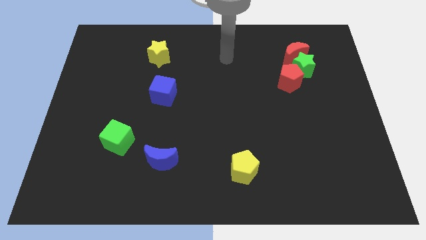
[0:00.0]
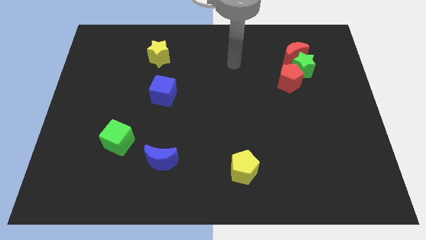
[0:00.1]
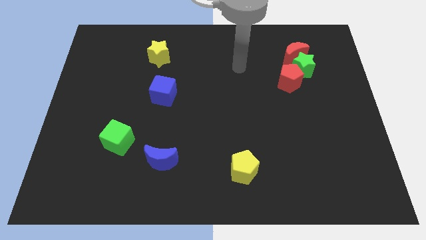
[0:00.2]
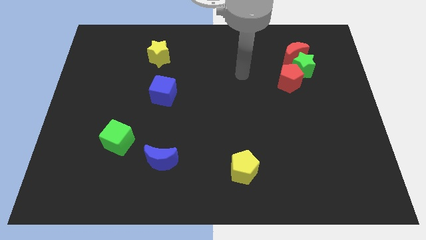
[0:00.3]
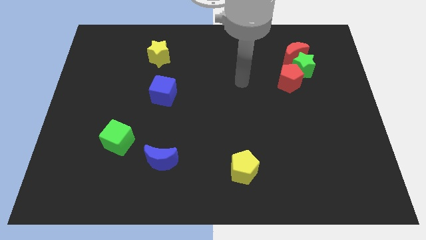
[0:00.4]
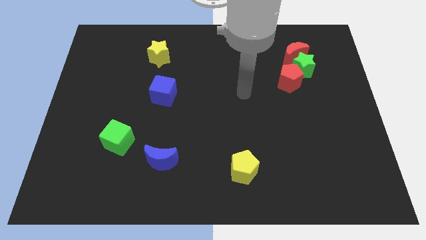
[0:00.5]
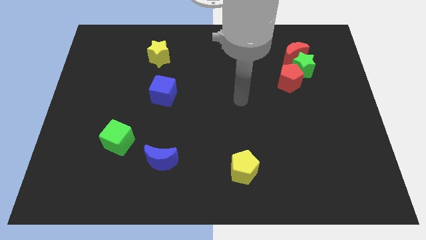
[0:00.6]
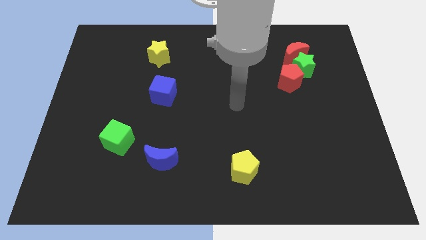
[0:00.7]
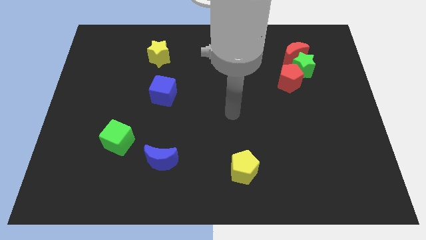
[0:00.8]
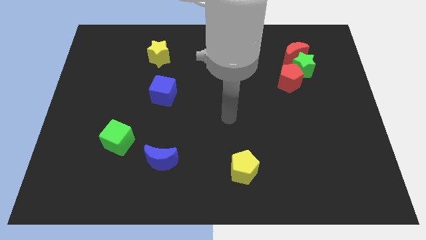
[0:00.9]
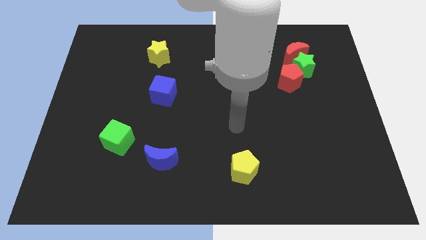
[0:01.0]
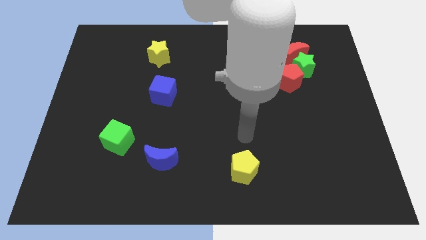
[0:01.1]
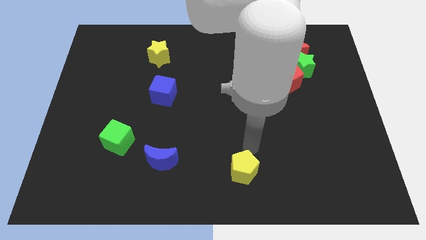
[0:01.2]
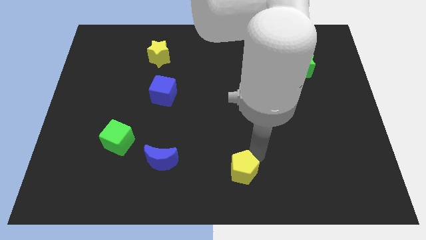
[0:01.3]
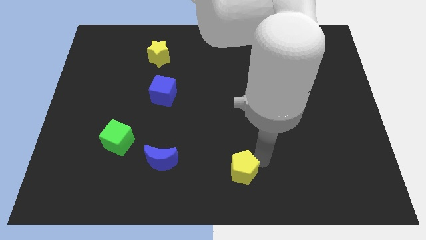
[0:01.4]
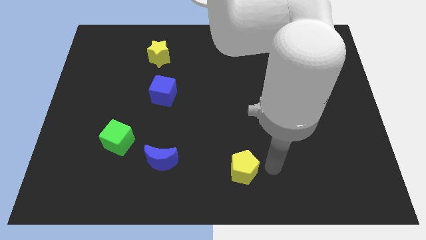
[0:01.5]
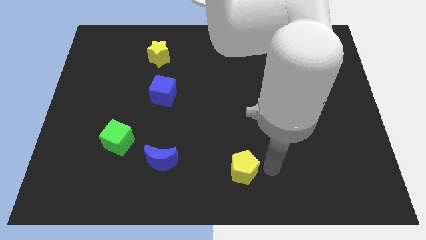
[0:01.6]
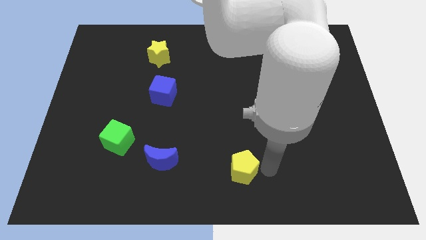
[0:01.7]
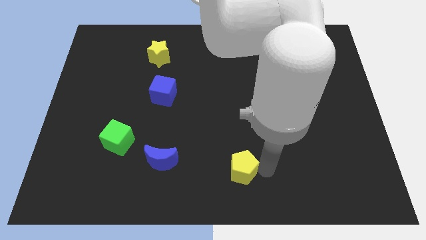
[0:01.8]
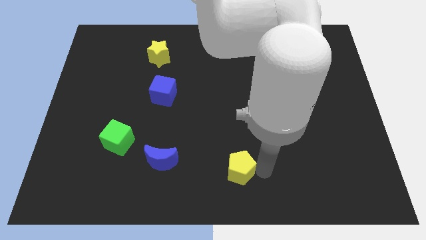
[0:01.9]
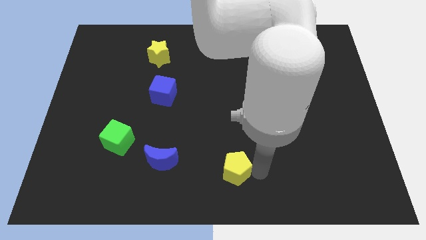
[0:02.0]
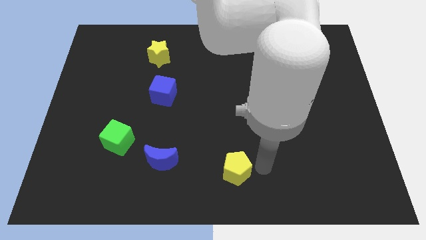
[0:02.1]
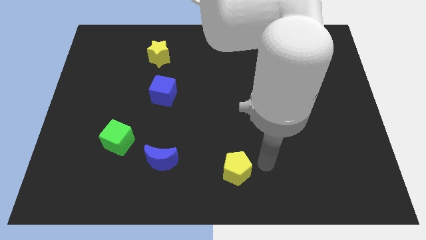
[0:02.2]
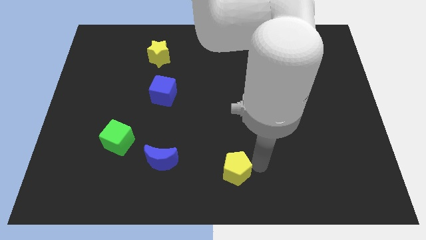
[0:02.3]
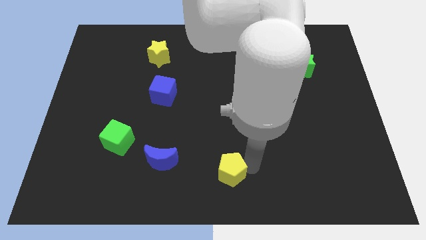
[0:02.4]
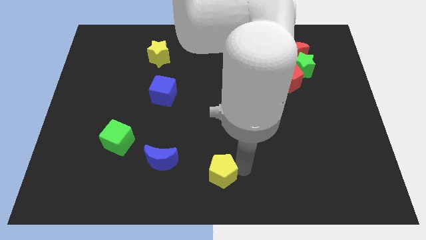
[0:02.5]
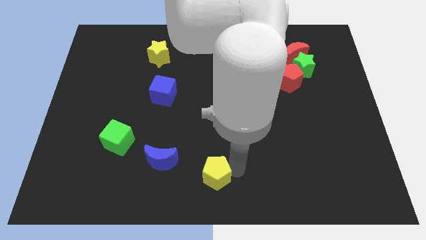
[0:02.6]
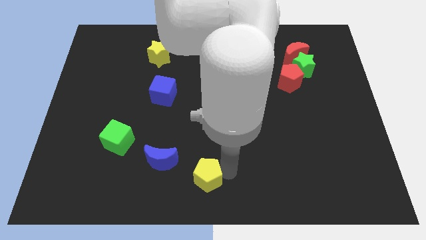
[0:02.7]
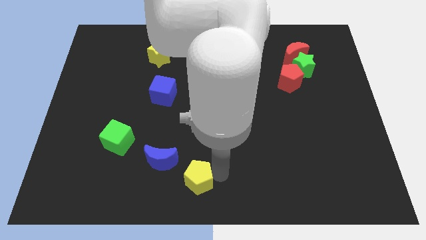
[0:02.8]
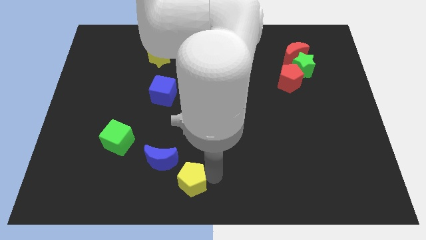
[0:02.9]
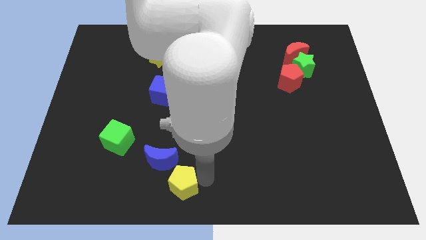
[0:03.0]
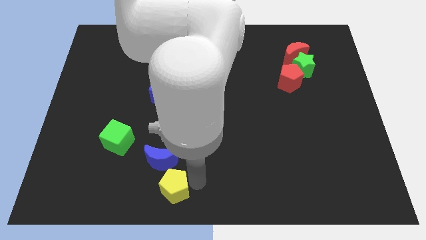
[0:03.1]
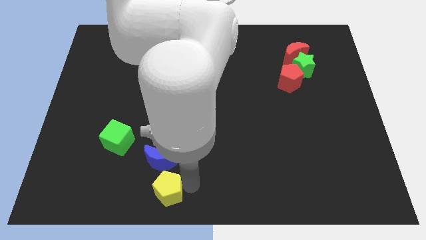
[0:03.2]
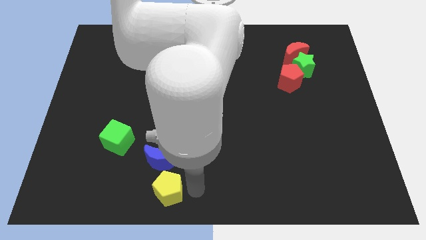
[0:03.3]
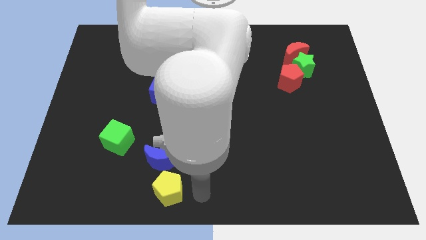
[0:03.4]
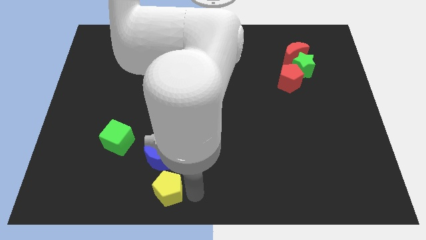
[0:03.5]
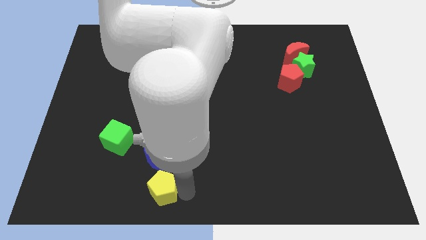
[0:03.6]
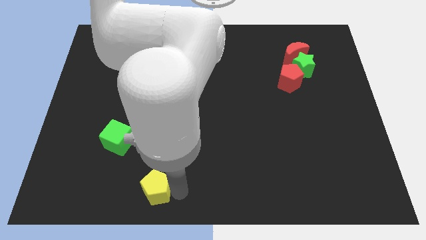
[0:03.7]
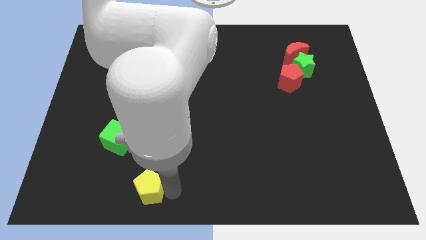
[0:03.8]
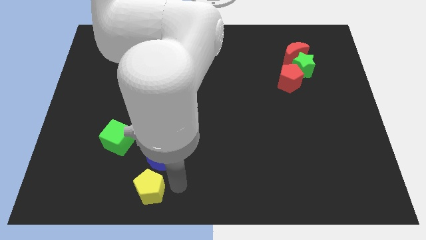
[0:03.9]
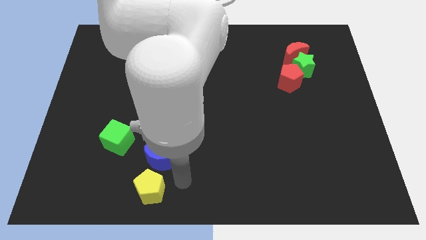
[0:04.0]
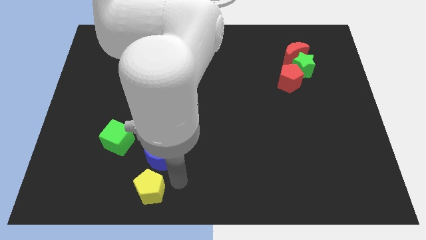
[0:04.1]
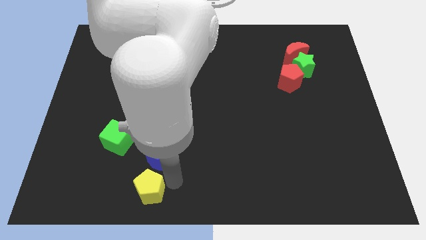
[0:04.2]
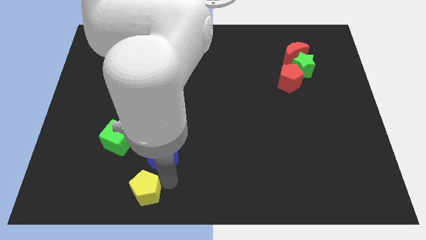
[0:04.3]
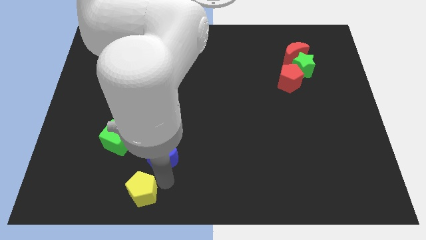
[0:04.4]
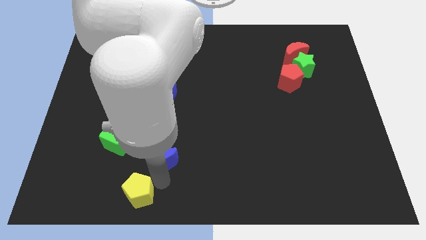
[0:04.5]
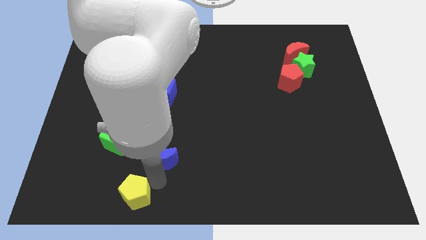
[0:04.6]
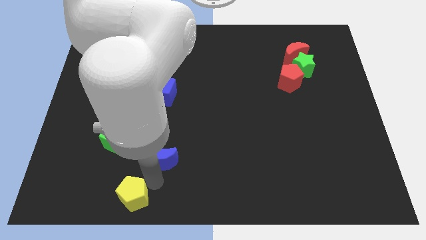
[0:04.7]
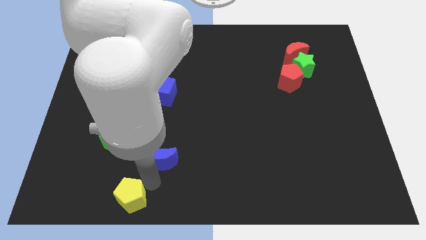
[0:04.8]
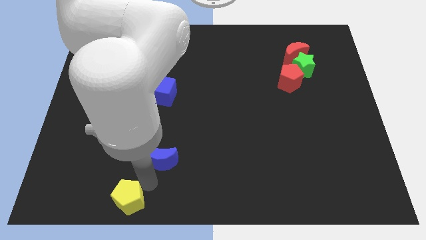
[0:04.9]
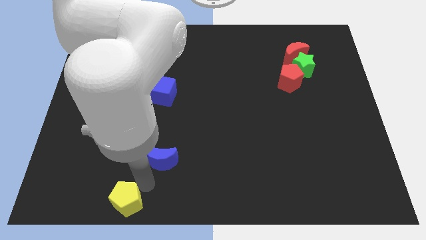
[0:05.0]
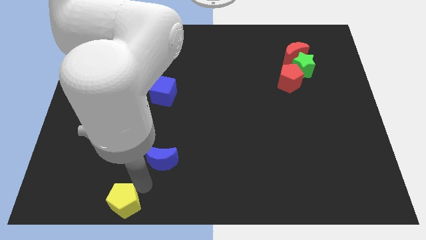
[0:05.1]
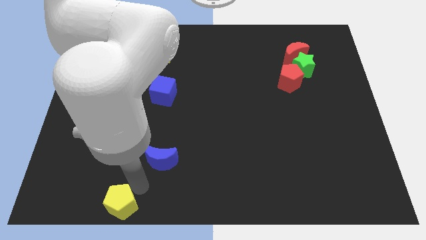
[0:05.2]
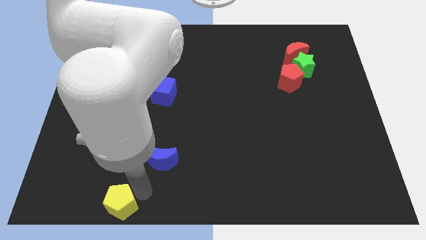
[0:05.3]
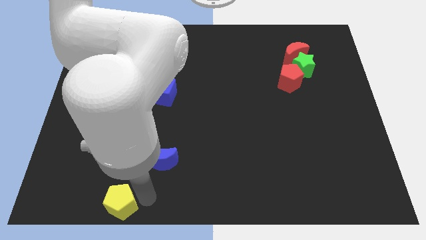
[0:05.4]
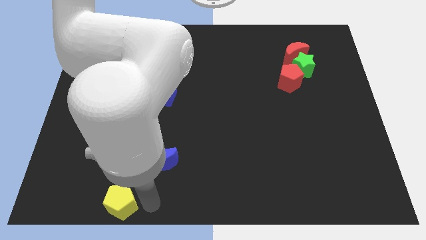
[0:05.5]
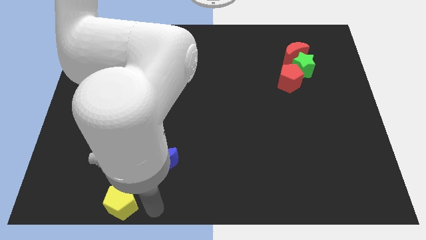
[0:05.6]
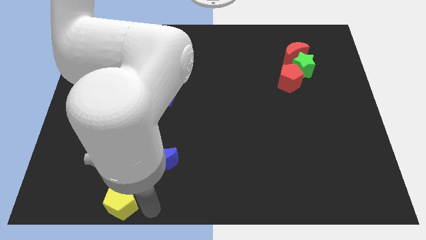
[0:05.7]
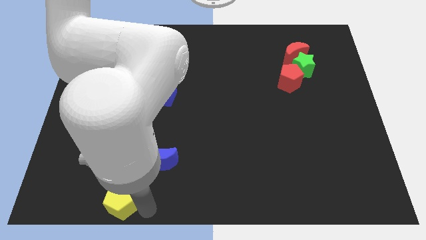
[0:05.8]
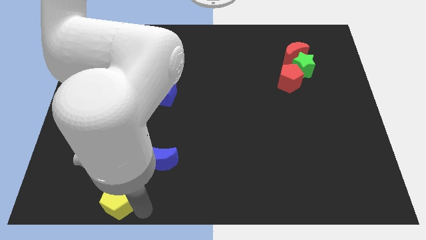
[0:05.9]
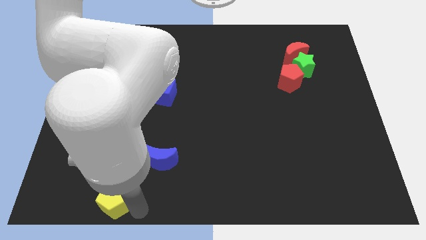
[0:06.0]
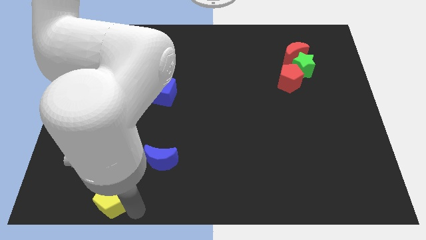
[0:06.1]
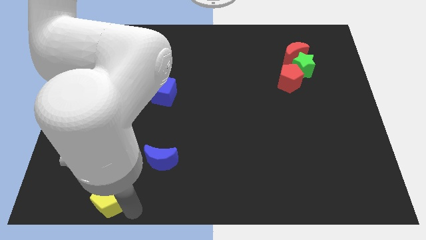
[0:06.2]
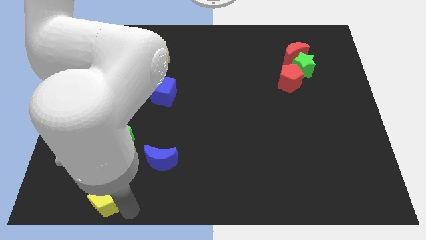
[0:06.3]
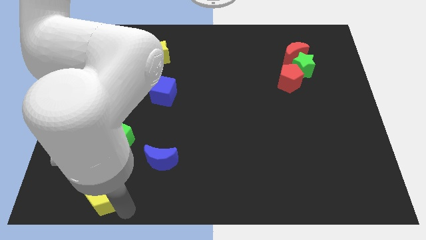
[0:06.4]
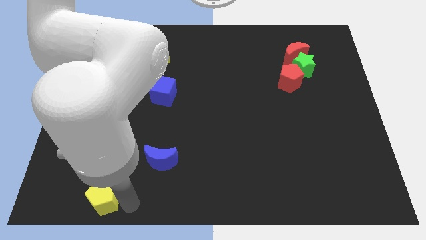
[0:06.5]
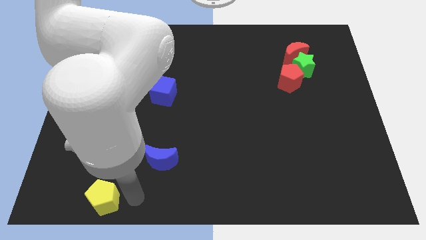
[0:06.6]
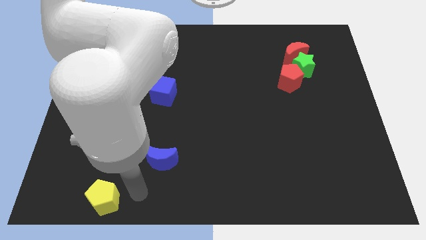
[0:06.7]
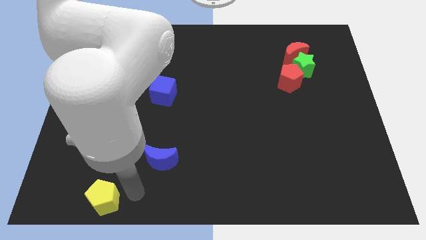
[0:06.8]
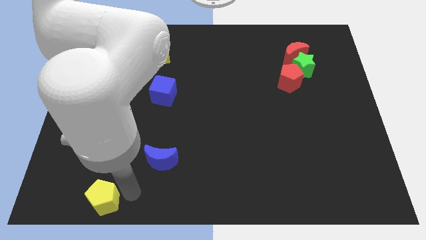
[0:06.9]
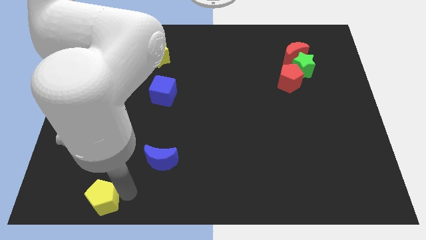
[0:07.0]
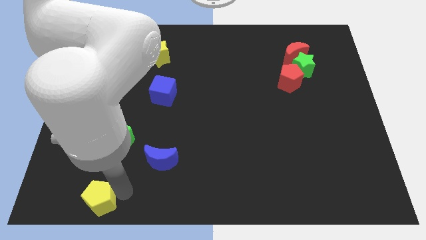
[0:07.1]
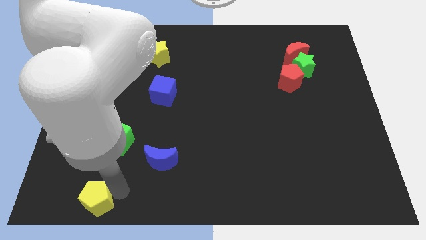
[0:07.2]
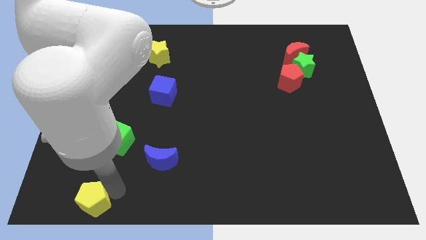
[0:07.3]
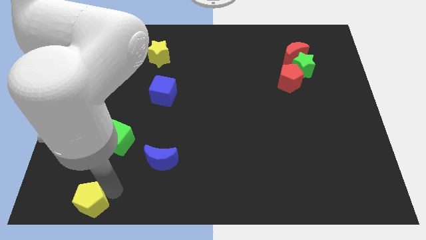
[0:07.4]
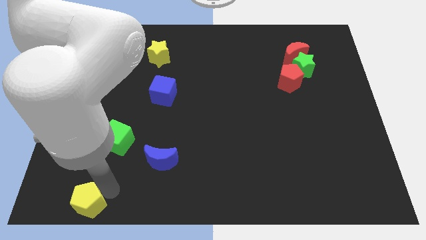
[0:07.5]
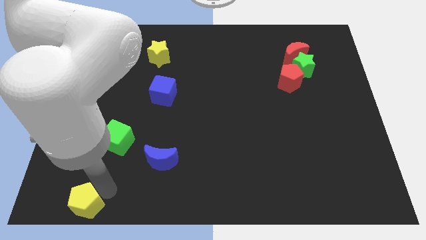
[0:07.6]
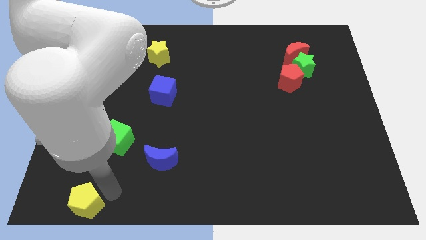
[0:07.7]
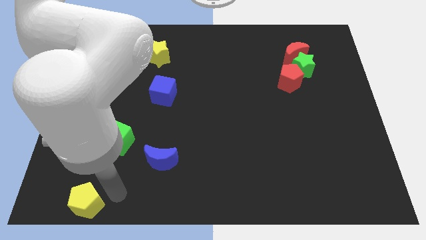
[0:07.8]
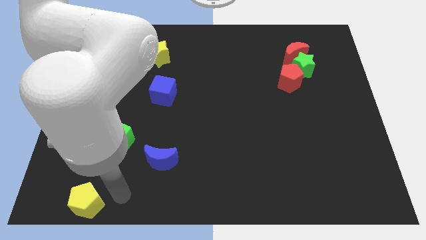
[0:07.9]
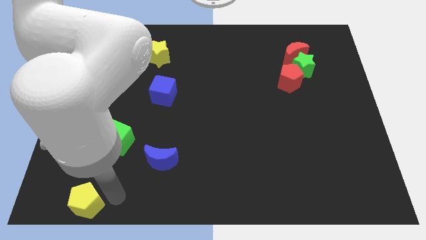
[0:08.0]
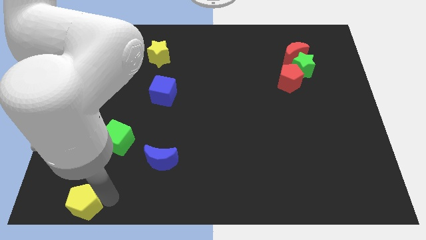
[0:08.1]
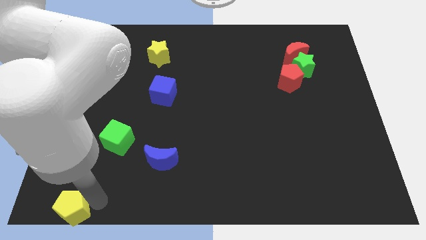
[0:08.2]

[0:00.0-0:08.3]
put the yellow pentagon to the bottom left corner
